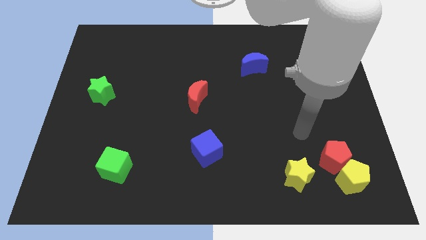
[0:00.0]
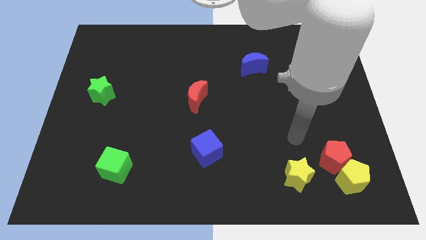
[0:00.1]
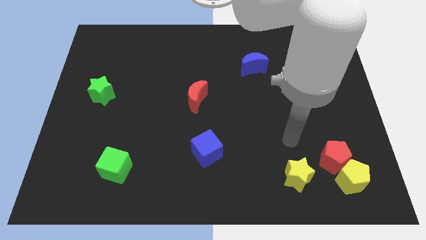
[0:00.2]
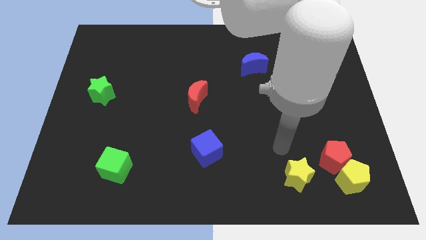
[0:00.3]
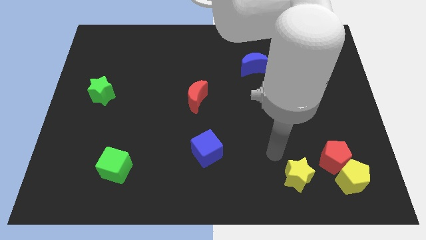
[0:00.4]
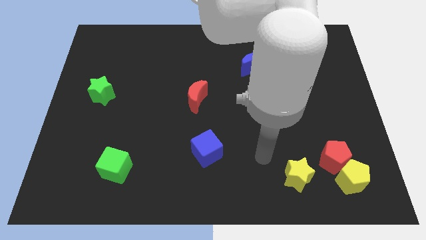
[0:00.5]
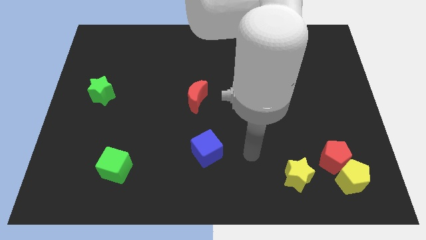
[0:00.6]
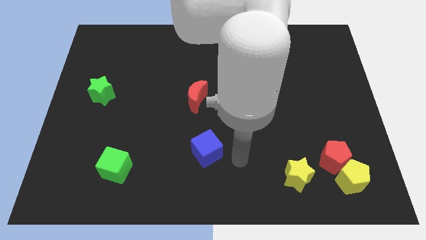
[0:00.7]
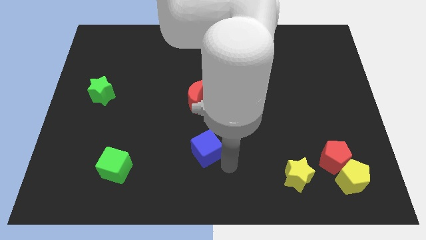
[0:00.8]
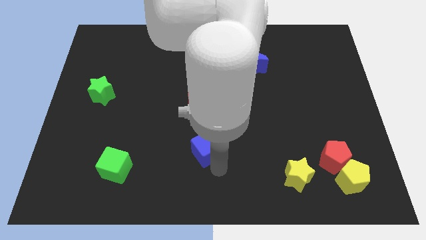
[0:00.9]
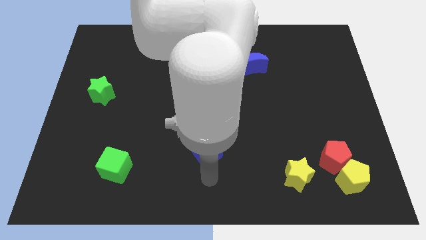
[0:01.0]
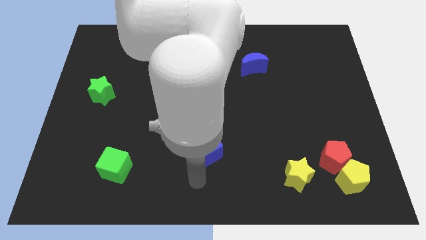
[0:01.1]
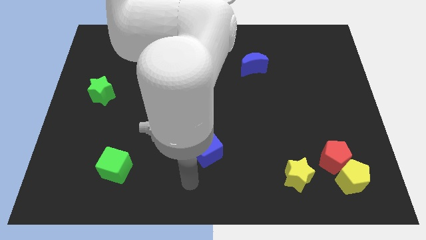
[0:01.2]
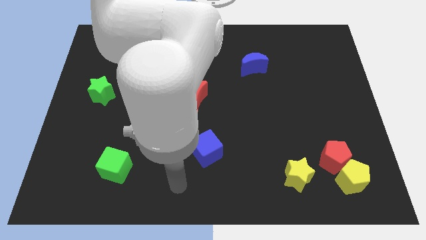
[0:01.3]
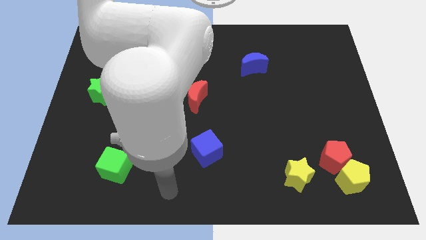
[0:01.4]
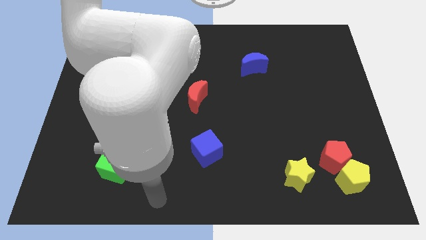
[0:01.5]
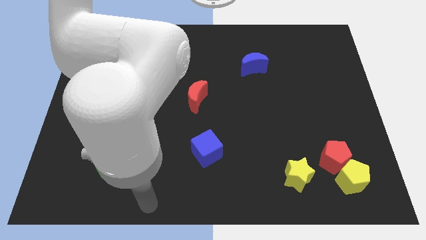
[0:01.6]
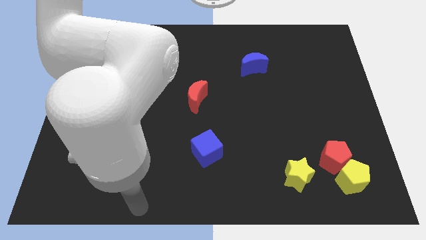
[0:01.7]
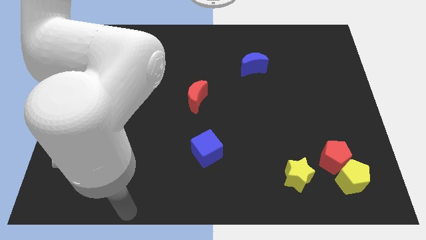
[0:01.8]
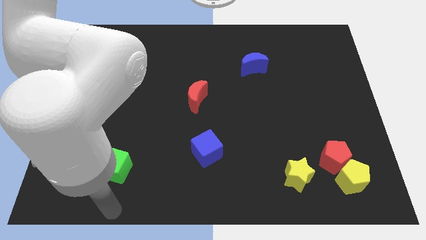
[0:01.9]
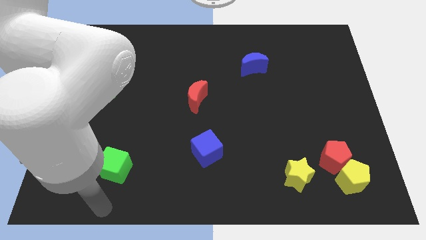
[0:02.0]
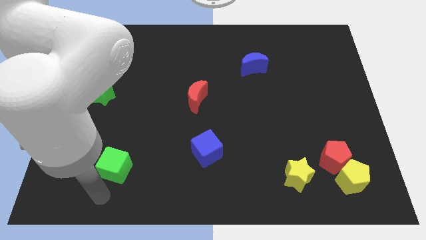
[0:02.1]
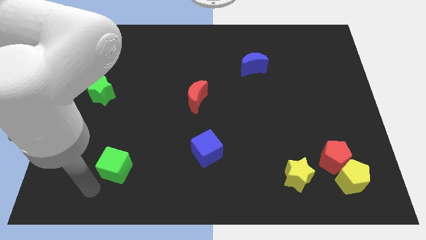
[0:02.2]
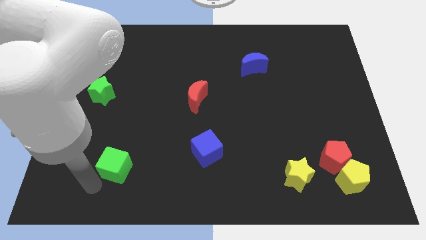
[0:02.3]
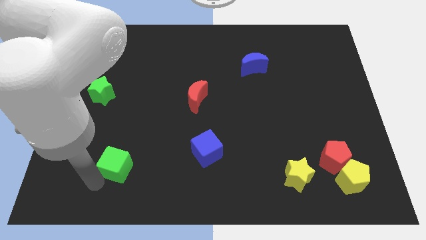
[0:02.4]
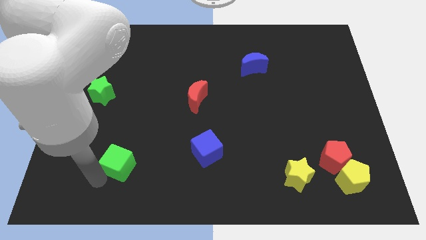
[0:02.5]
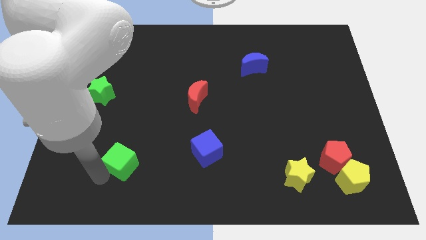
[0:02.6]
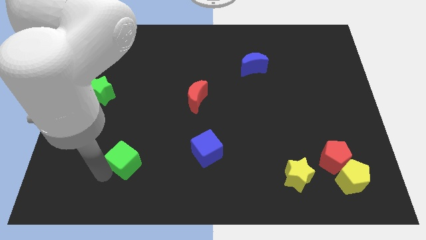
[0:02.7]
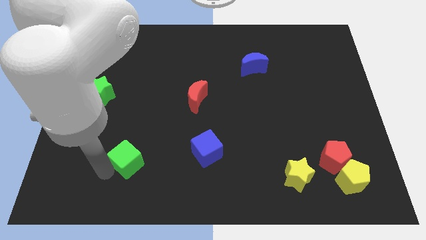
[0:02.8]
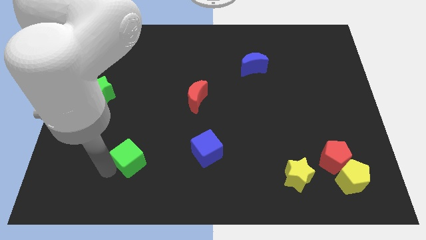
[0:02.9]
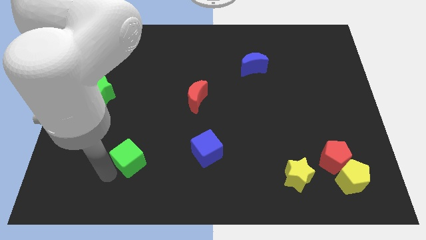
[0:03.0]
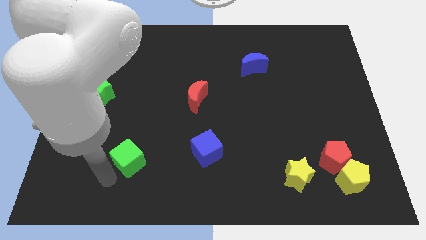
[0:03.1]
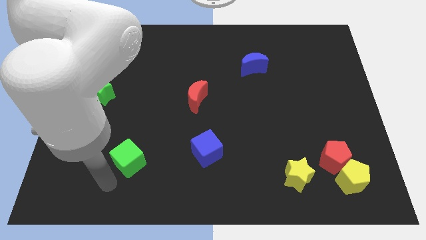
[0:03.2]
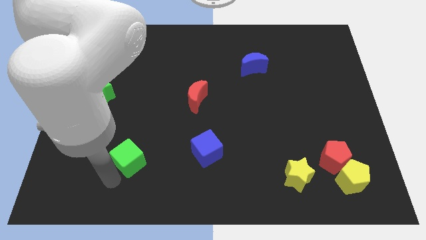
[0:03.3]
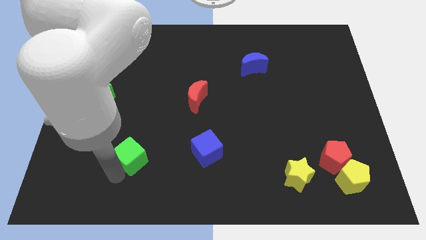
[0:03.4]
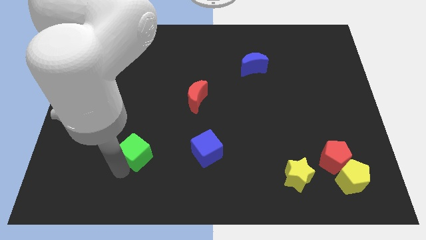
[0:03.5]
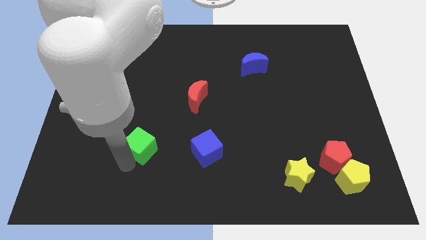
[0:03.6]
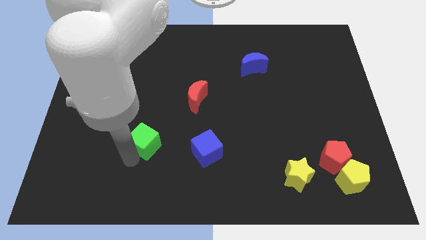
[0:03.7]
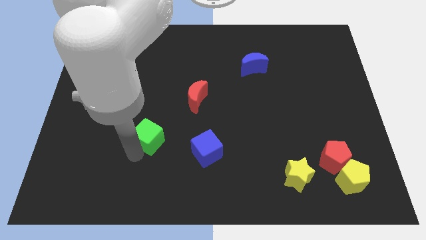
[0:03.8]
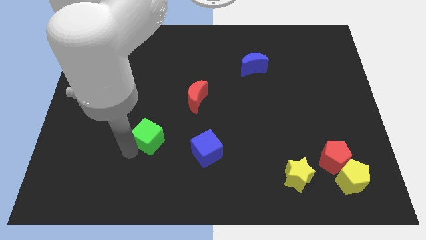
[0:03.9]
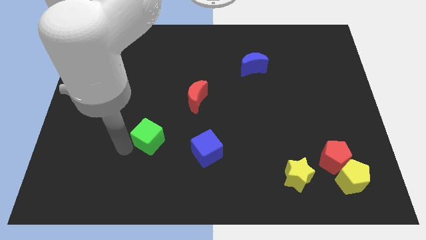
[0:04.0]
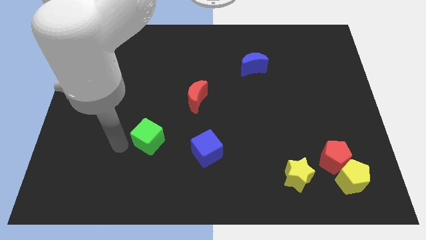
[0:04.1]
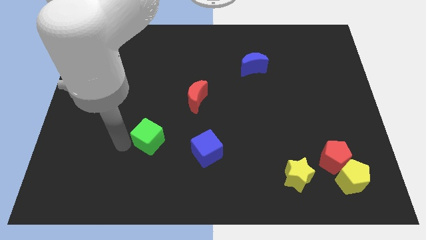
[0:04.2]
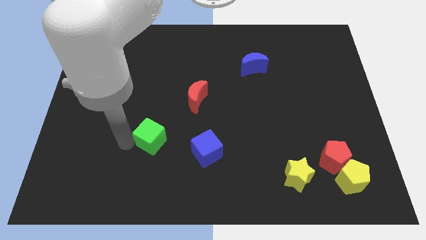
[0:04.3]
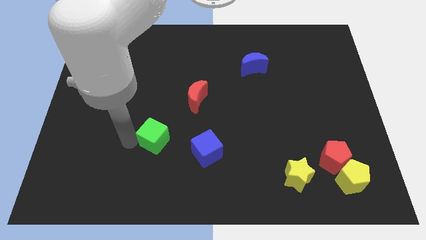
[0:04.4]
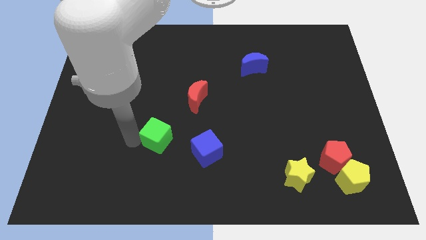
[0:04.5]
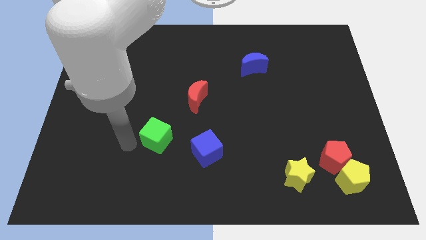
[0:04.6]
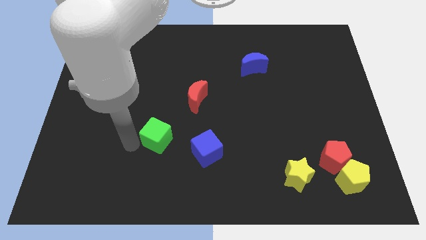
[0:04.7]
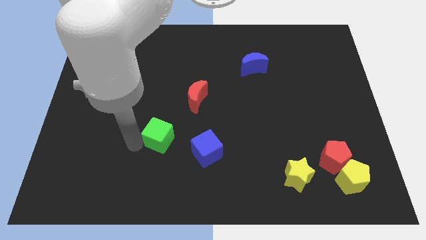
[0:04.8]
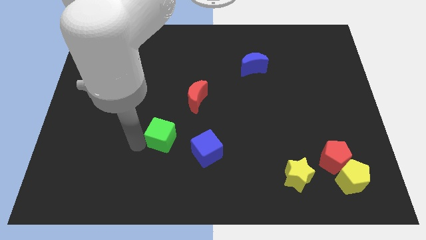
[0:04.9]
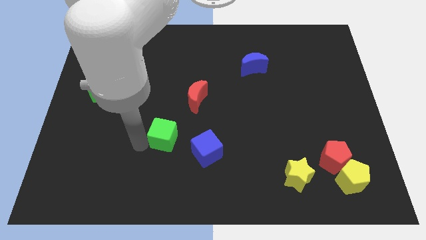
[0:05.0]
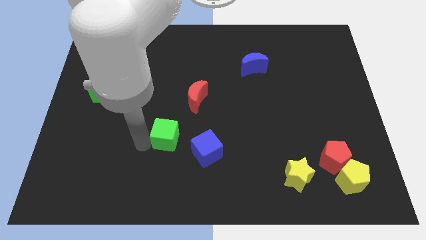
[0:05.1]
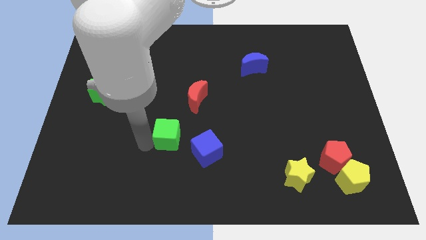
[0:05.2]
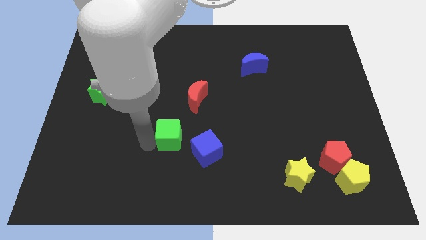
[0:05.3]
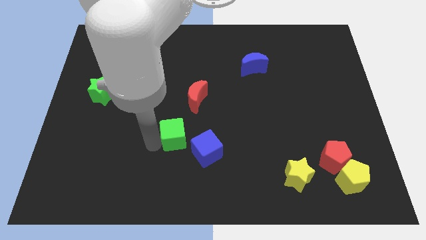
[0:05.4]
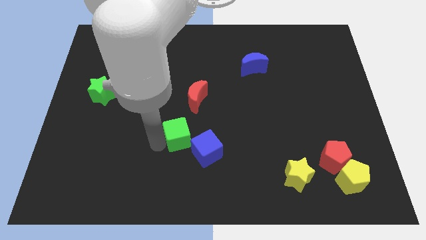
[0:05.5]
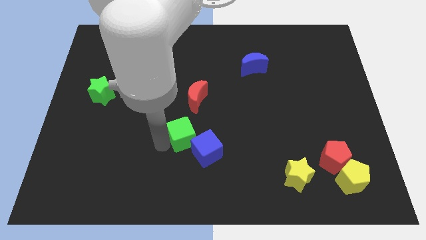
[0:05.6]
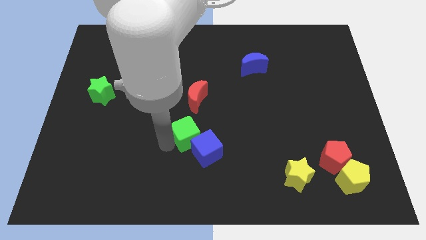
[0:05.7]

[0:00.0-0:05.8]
put the green cube to the top of the blue cube
